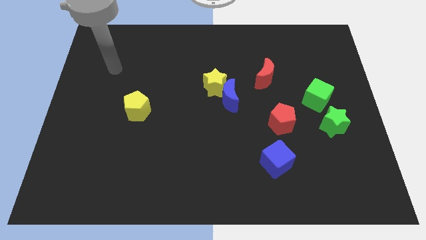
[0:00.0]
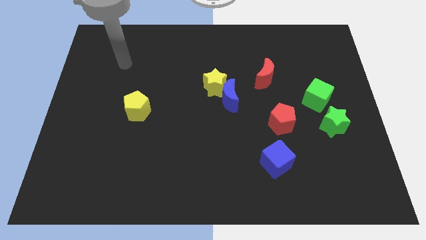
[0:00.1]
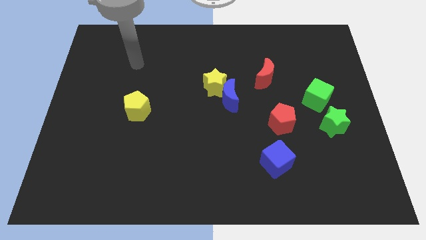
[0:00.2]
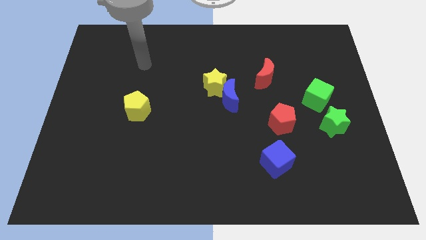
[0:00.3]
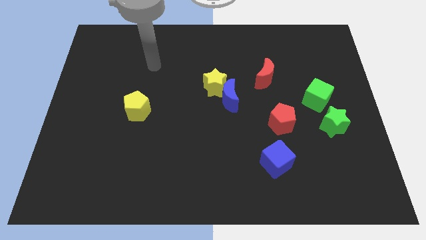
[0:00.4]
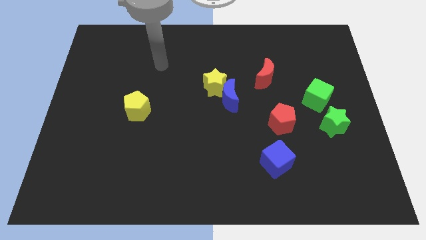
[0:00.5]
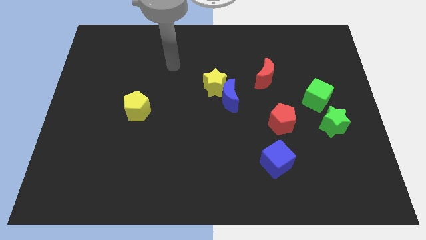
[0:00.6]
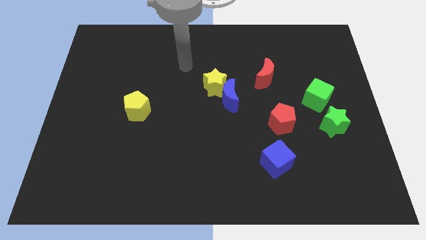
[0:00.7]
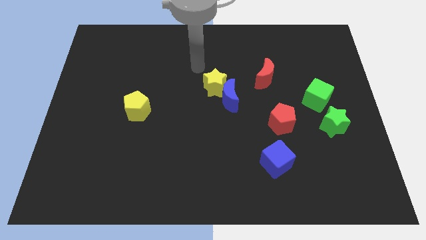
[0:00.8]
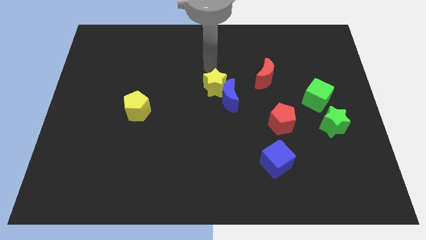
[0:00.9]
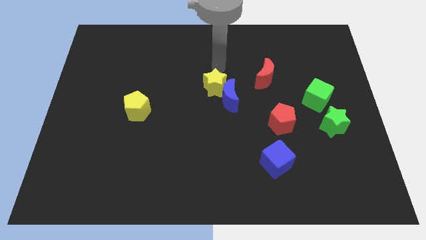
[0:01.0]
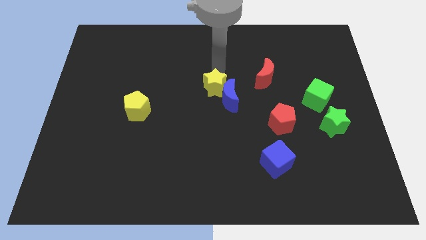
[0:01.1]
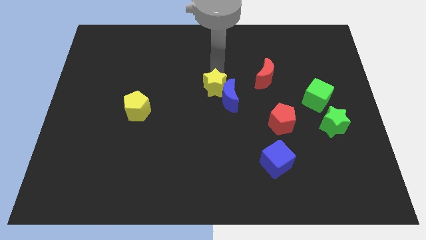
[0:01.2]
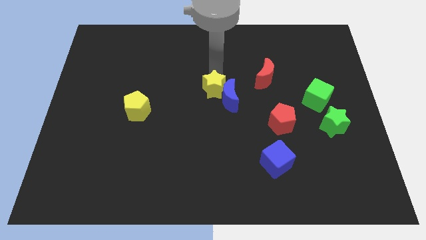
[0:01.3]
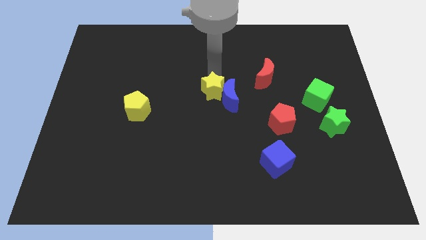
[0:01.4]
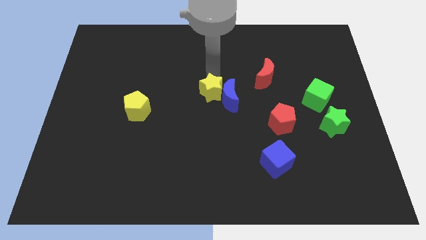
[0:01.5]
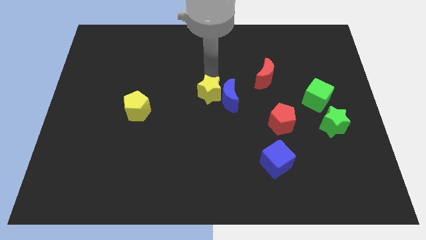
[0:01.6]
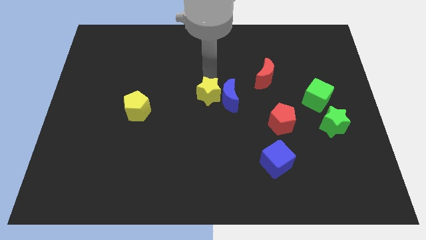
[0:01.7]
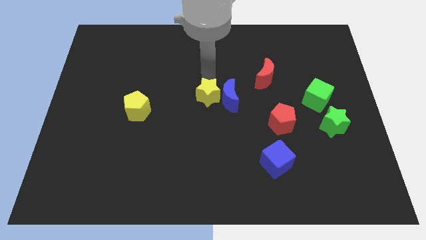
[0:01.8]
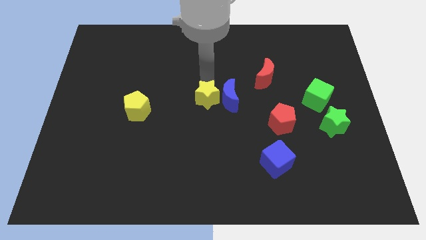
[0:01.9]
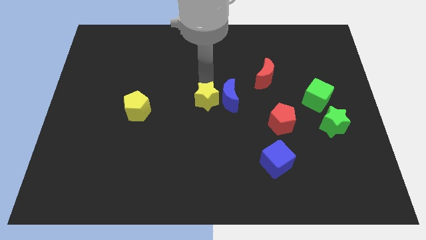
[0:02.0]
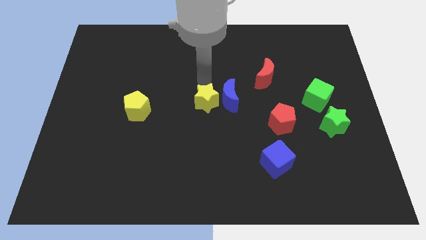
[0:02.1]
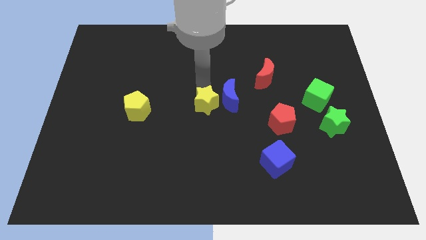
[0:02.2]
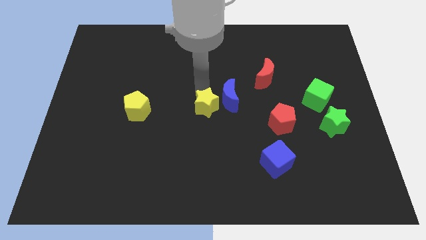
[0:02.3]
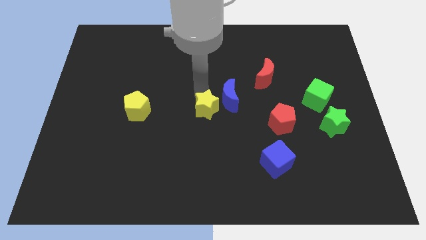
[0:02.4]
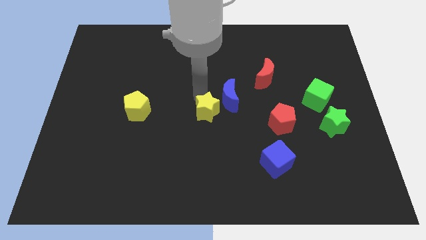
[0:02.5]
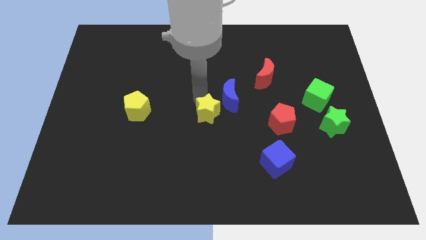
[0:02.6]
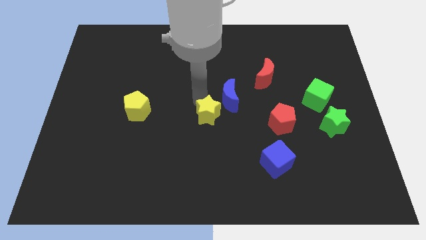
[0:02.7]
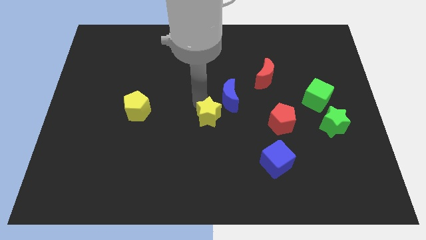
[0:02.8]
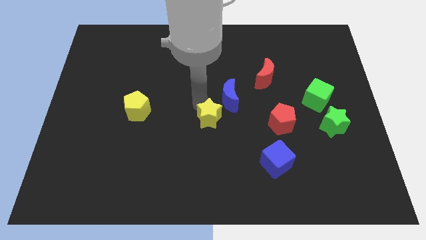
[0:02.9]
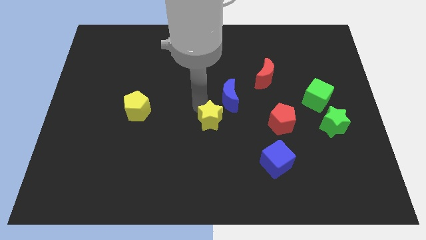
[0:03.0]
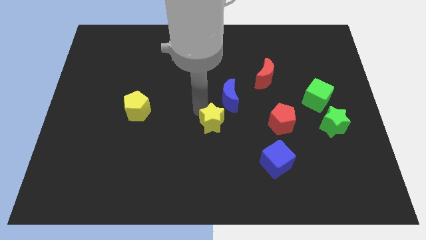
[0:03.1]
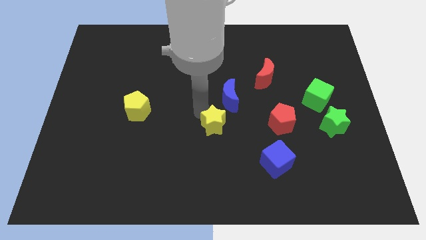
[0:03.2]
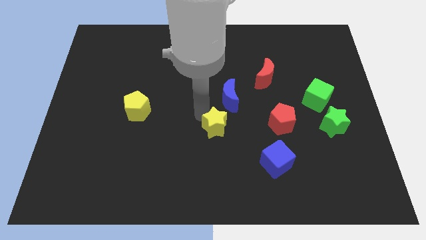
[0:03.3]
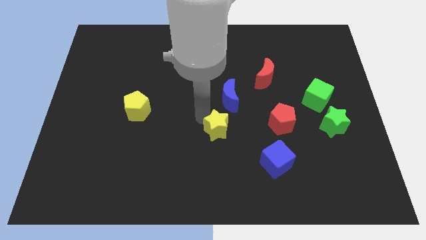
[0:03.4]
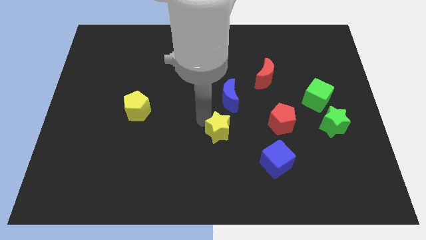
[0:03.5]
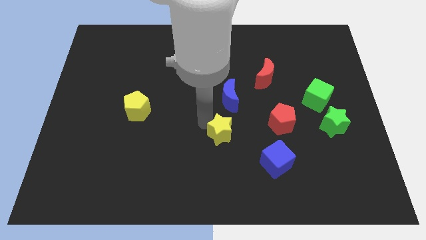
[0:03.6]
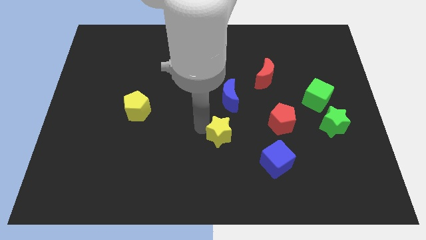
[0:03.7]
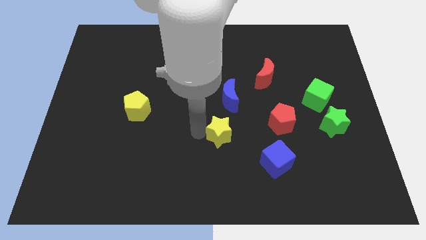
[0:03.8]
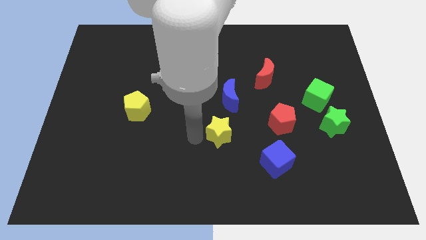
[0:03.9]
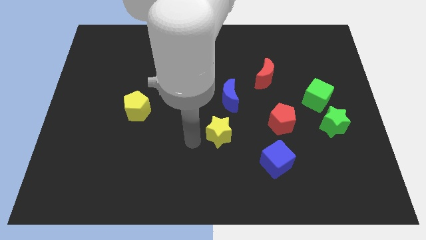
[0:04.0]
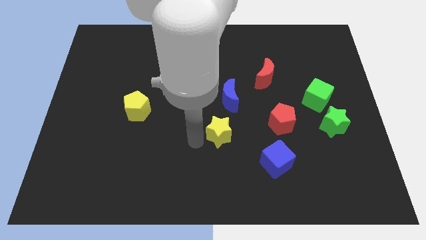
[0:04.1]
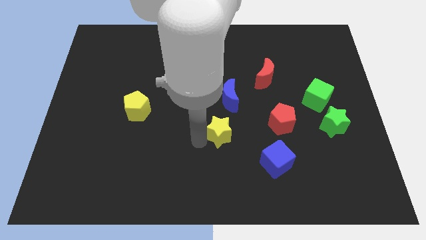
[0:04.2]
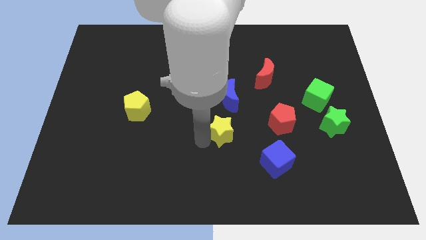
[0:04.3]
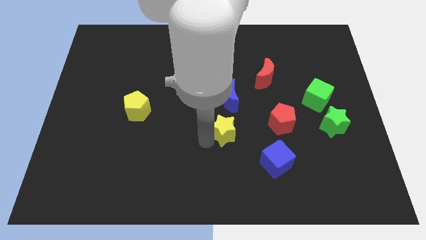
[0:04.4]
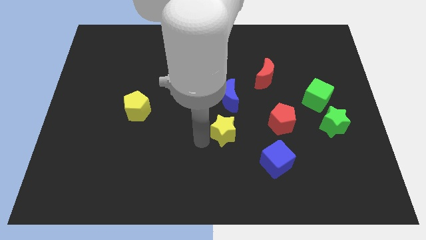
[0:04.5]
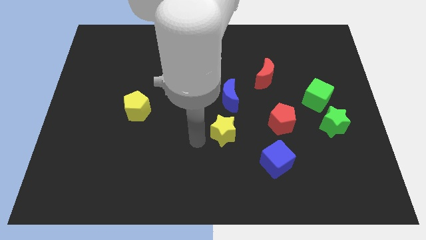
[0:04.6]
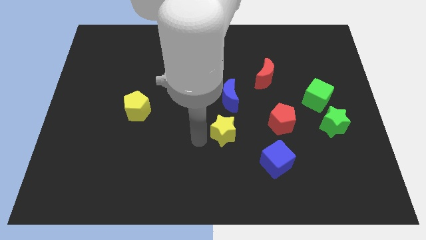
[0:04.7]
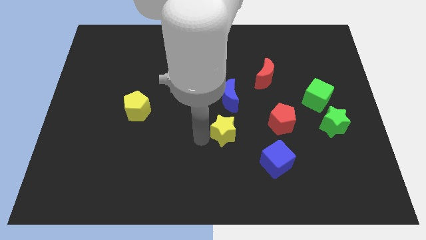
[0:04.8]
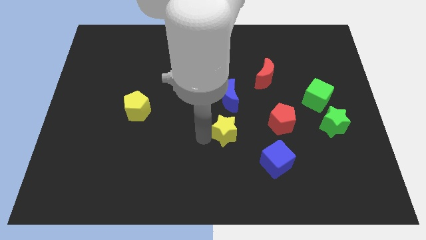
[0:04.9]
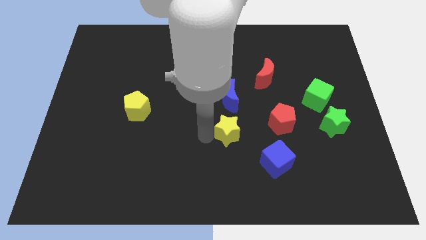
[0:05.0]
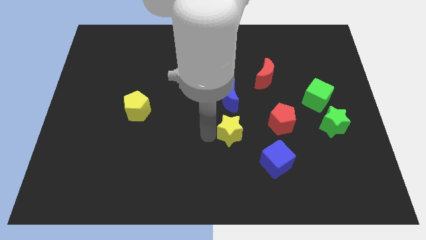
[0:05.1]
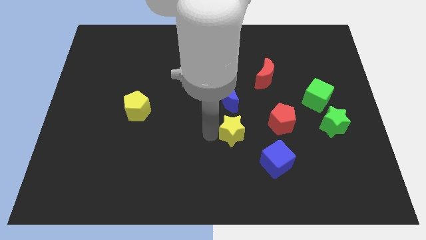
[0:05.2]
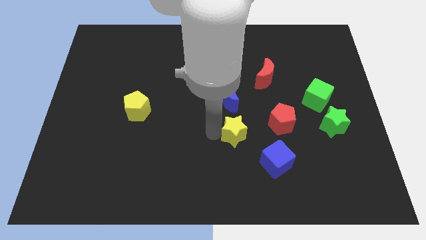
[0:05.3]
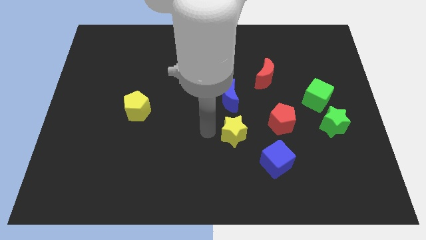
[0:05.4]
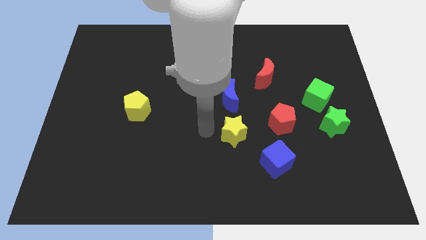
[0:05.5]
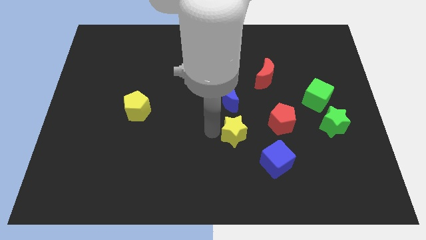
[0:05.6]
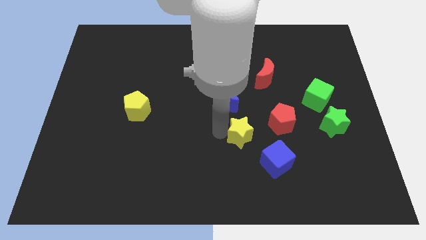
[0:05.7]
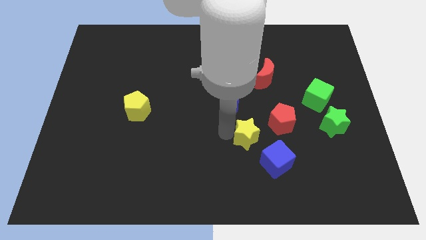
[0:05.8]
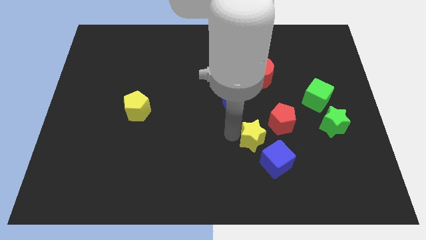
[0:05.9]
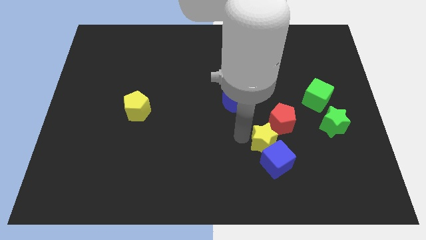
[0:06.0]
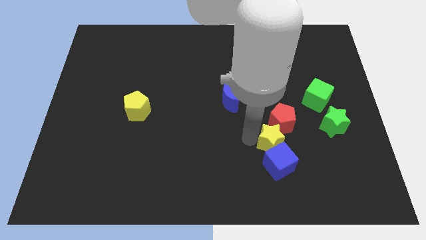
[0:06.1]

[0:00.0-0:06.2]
push the yellow star to the top right of the blue cube

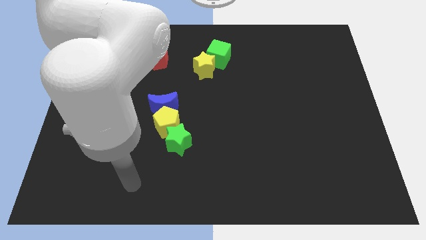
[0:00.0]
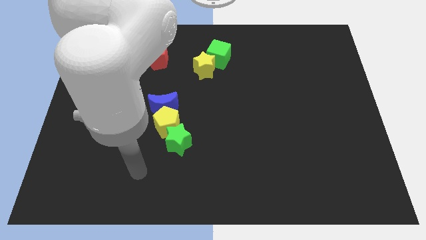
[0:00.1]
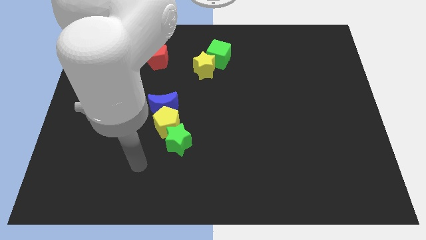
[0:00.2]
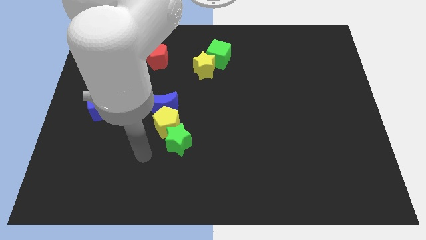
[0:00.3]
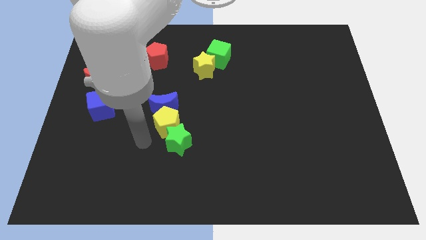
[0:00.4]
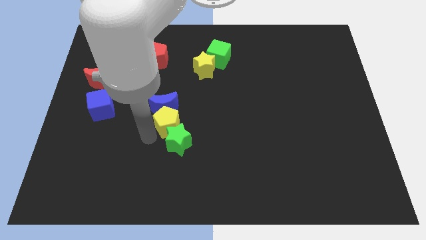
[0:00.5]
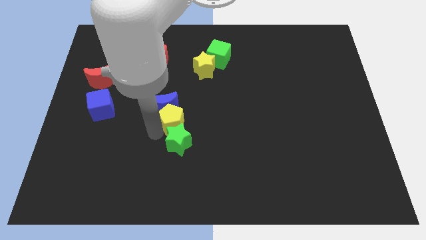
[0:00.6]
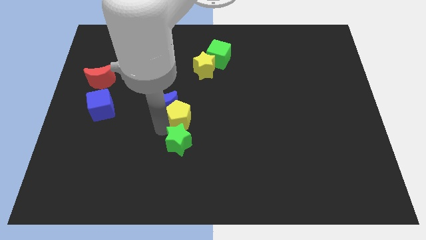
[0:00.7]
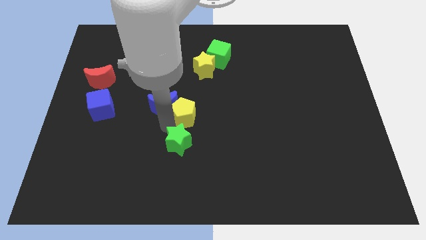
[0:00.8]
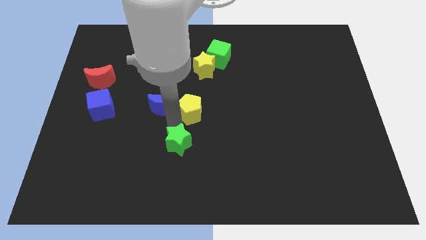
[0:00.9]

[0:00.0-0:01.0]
move the yellow pentagon below the yellow star
